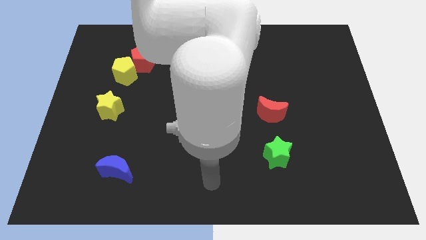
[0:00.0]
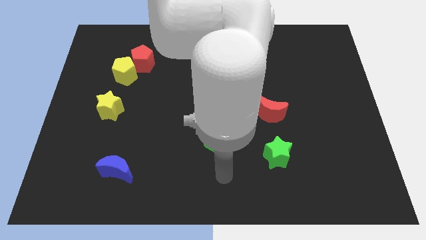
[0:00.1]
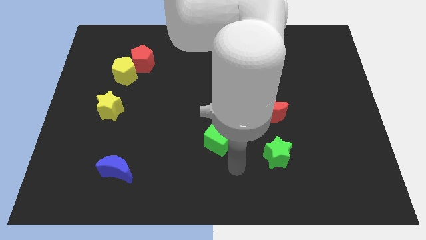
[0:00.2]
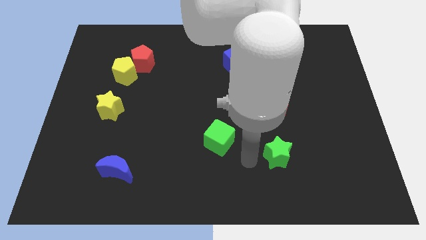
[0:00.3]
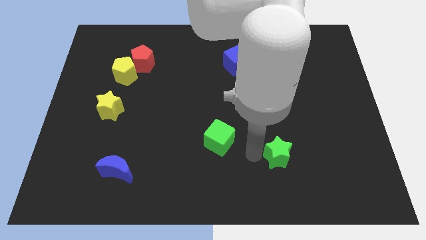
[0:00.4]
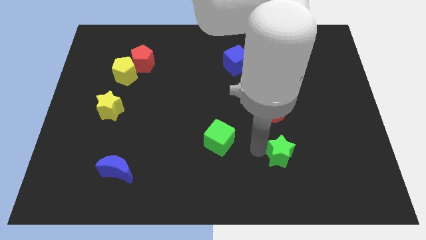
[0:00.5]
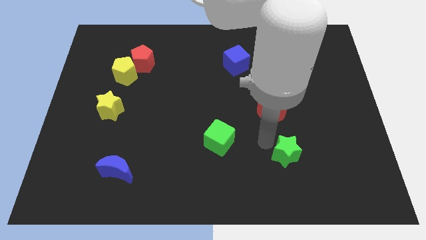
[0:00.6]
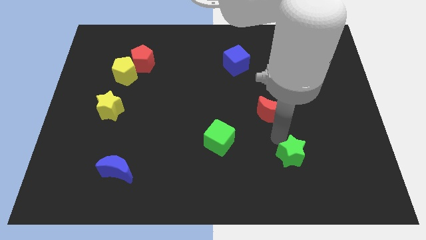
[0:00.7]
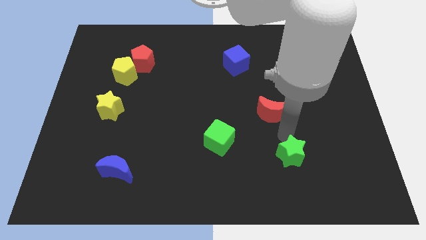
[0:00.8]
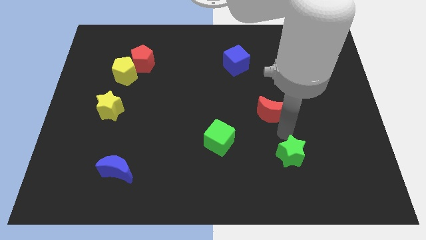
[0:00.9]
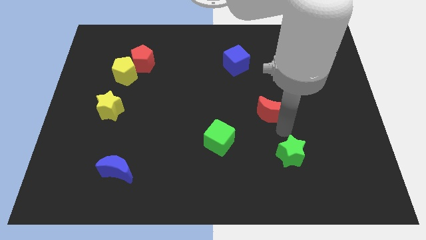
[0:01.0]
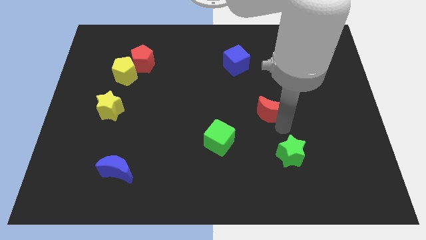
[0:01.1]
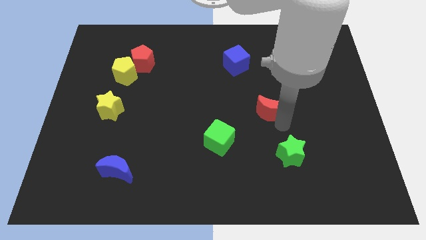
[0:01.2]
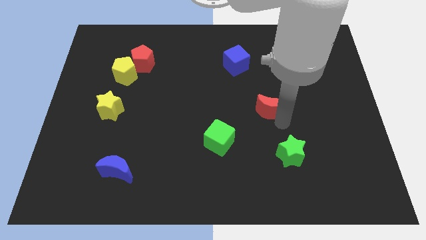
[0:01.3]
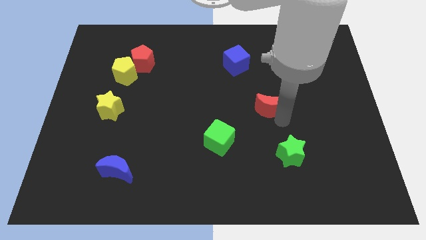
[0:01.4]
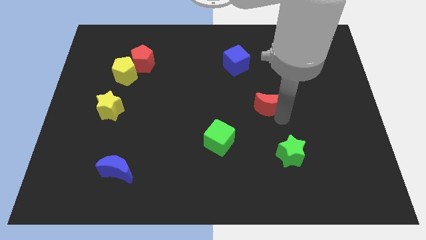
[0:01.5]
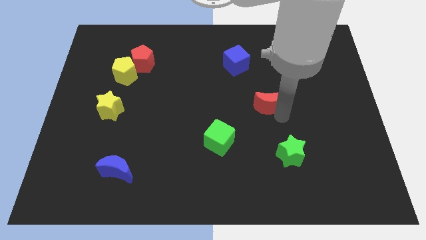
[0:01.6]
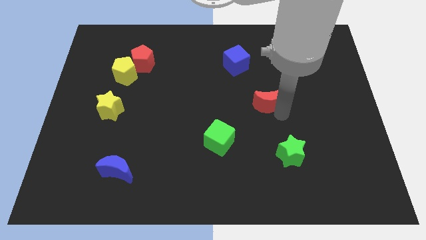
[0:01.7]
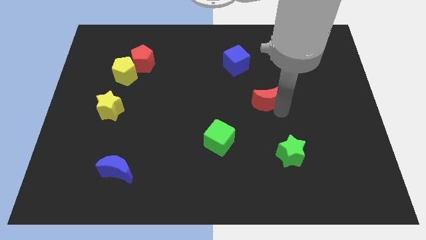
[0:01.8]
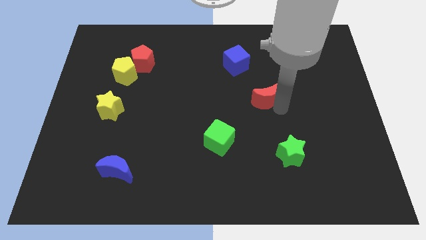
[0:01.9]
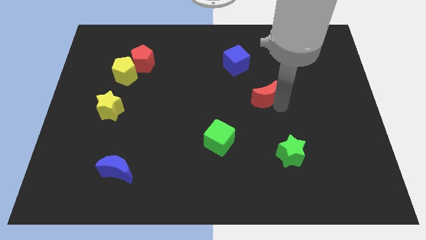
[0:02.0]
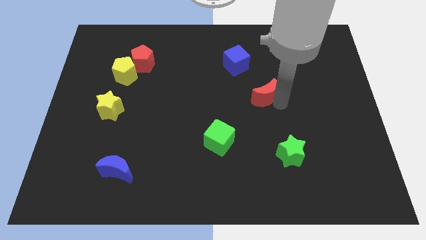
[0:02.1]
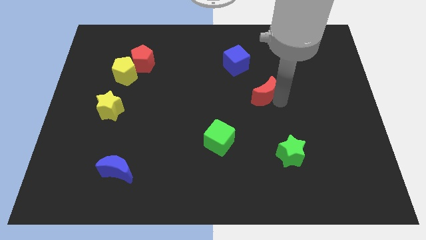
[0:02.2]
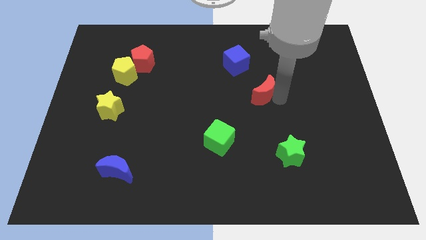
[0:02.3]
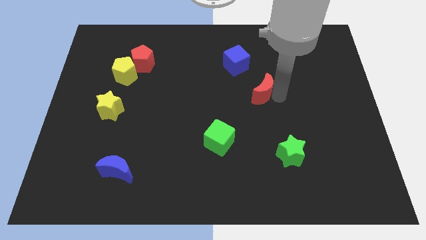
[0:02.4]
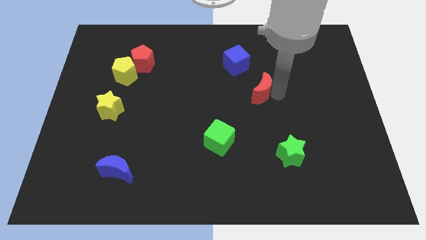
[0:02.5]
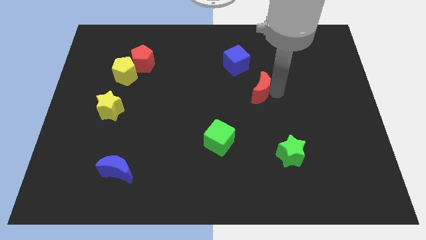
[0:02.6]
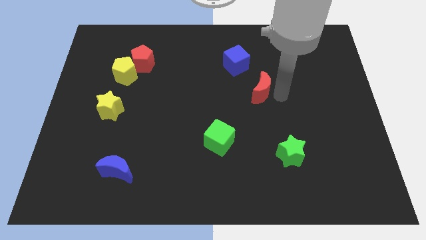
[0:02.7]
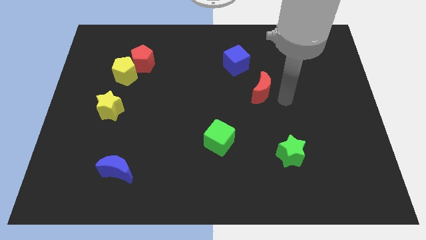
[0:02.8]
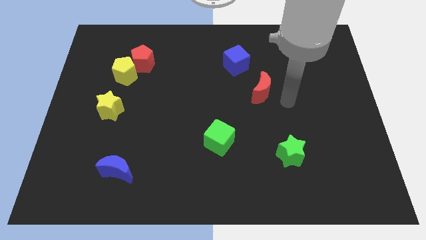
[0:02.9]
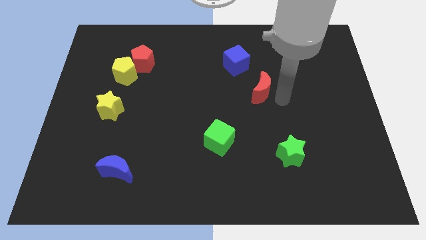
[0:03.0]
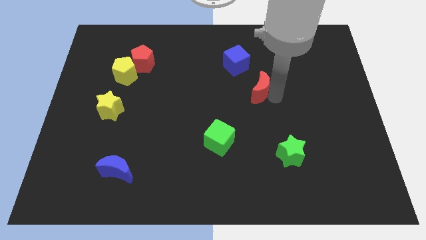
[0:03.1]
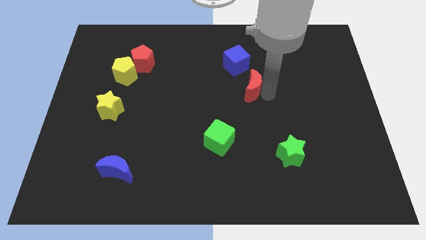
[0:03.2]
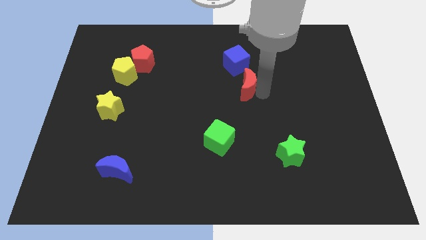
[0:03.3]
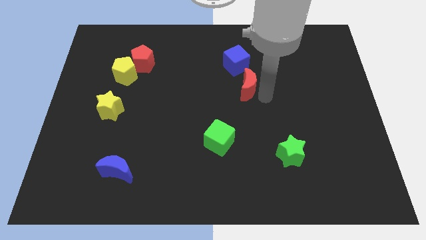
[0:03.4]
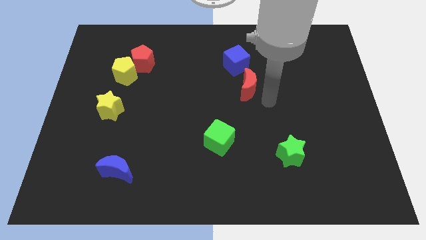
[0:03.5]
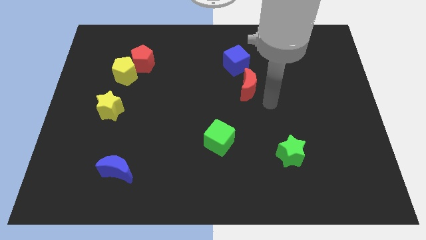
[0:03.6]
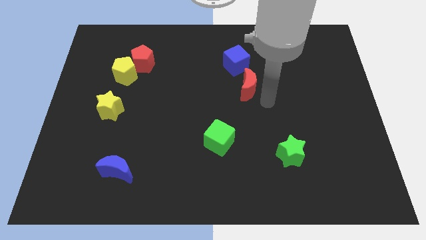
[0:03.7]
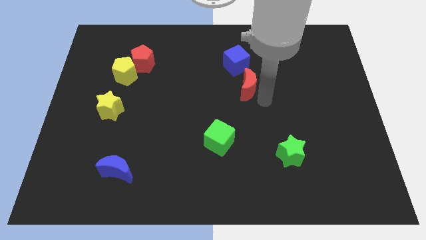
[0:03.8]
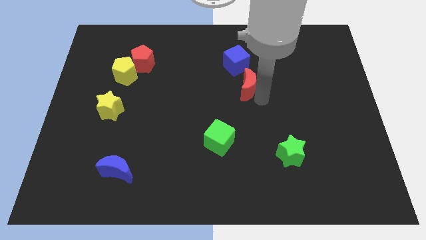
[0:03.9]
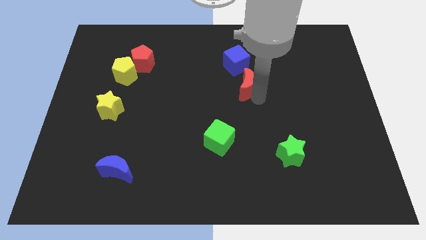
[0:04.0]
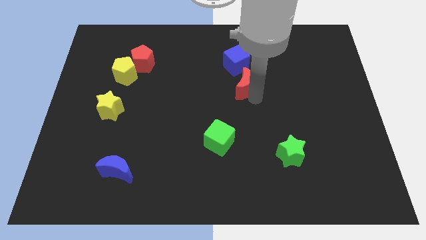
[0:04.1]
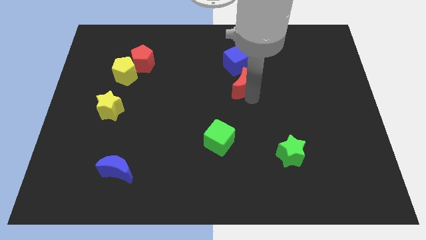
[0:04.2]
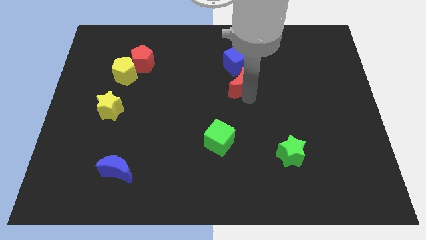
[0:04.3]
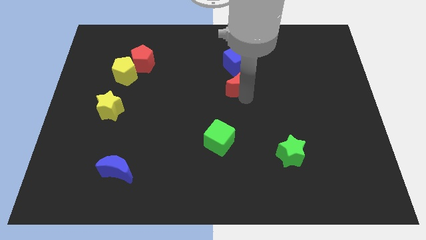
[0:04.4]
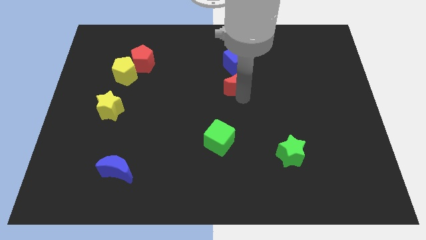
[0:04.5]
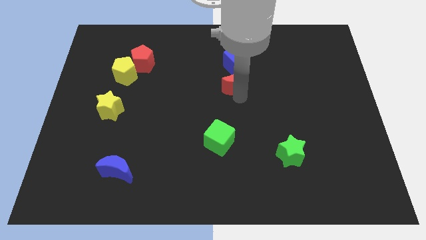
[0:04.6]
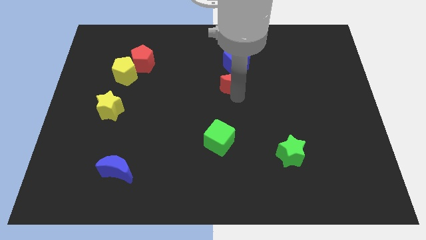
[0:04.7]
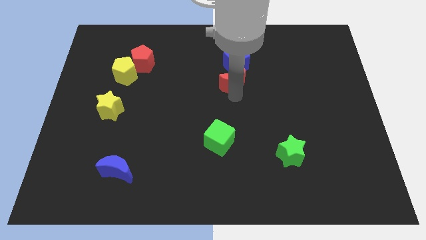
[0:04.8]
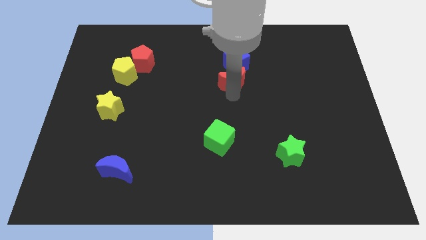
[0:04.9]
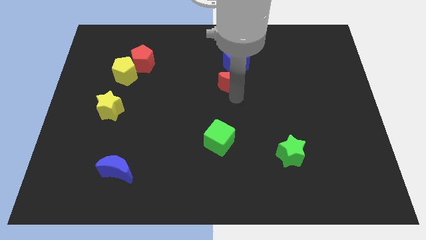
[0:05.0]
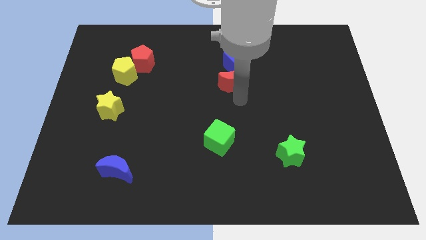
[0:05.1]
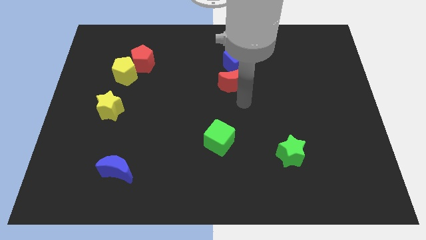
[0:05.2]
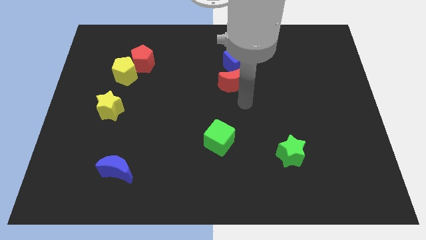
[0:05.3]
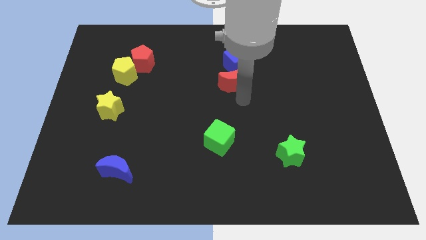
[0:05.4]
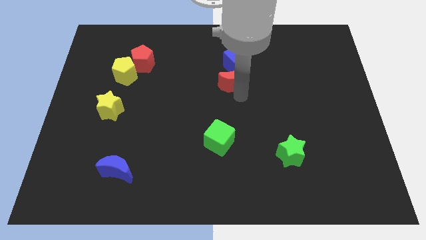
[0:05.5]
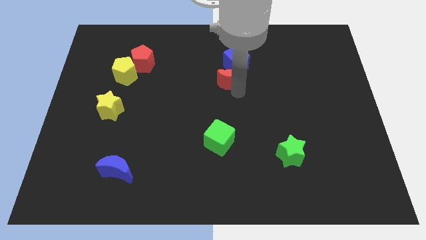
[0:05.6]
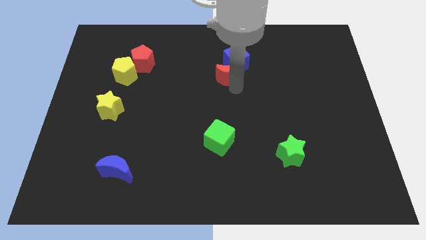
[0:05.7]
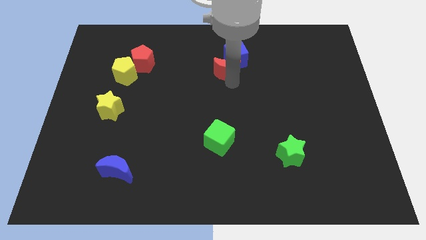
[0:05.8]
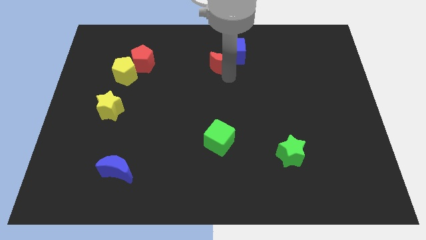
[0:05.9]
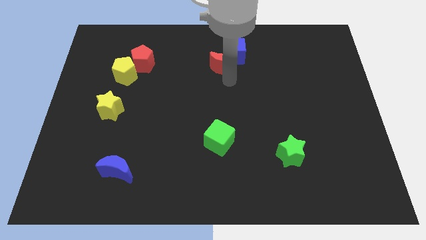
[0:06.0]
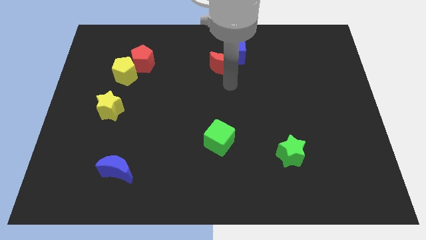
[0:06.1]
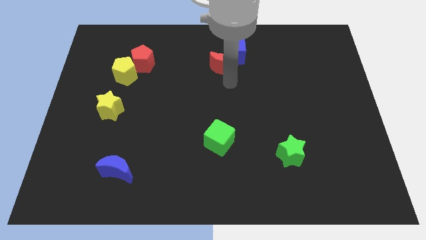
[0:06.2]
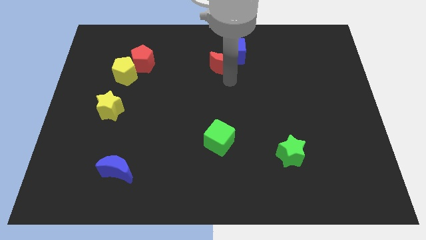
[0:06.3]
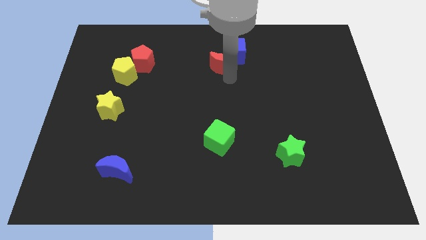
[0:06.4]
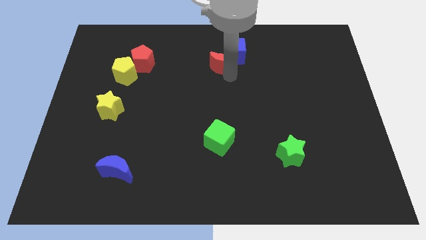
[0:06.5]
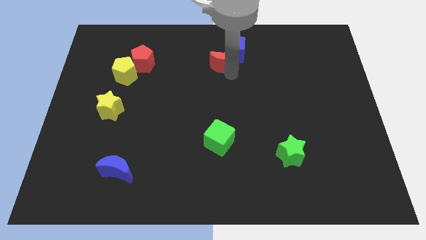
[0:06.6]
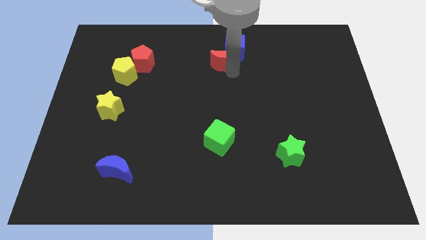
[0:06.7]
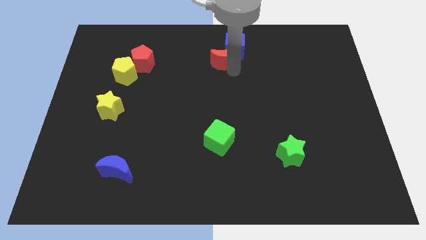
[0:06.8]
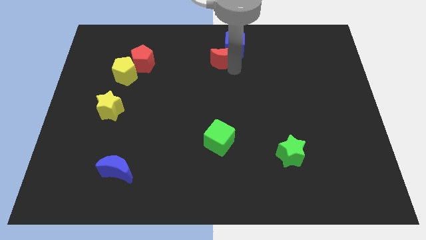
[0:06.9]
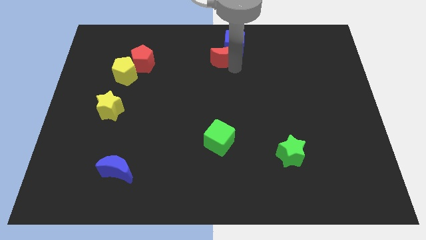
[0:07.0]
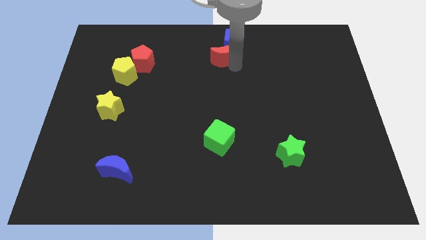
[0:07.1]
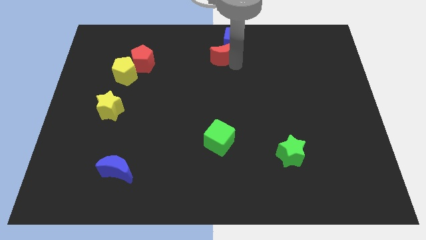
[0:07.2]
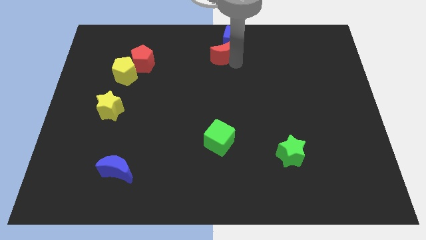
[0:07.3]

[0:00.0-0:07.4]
slide the red moon to the top side
